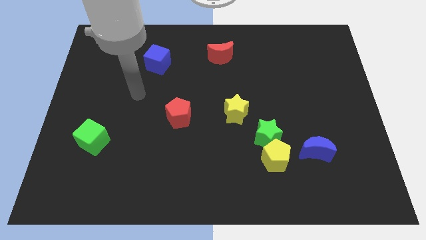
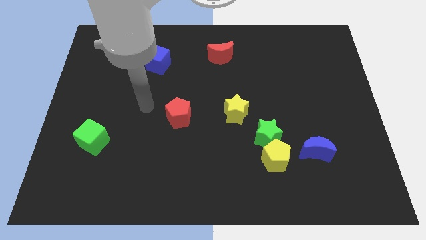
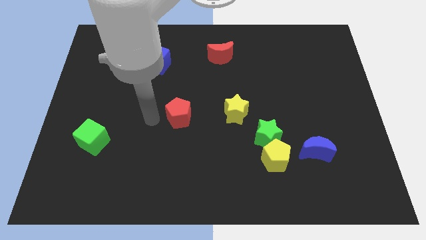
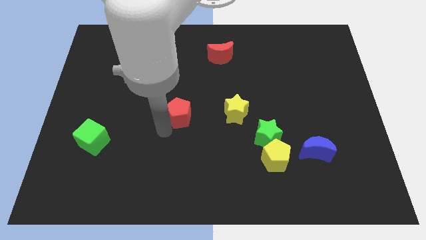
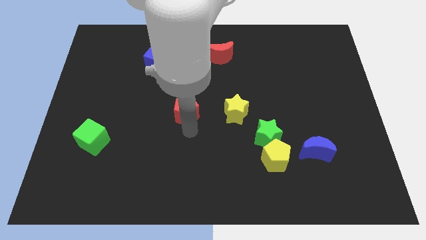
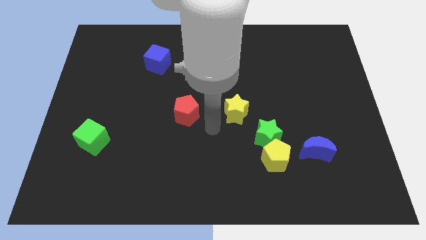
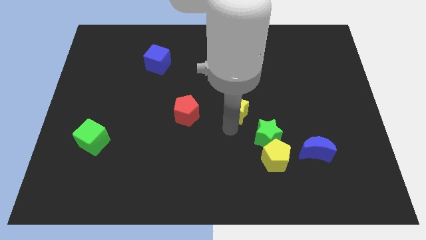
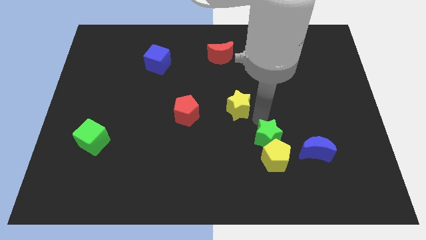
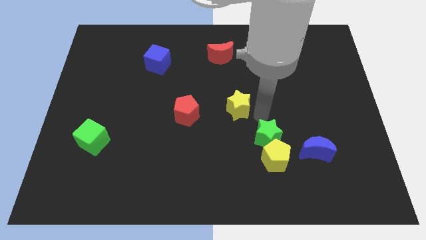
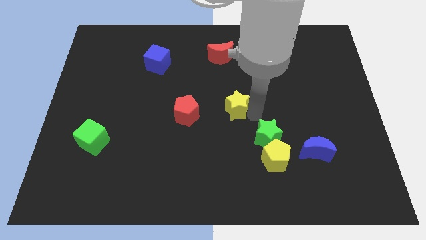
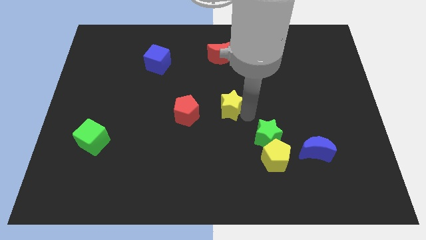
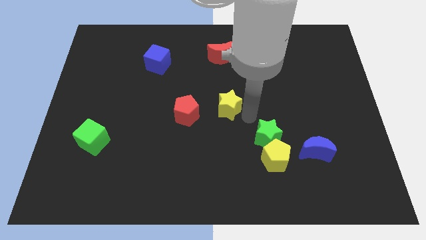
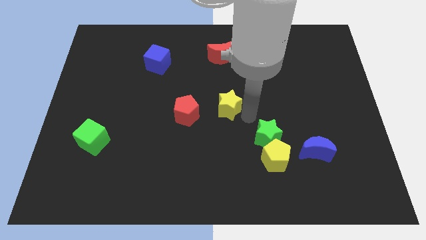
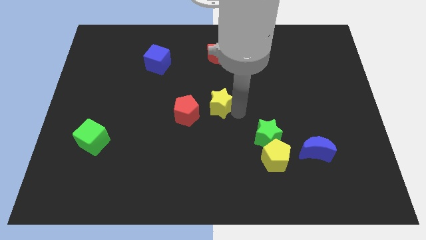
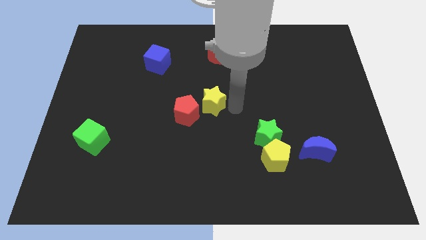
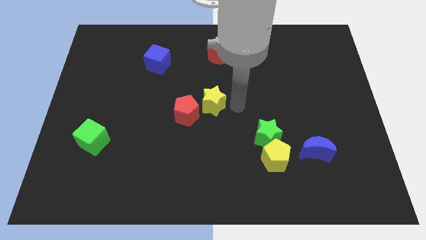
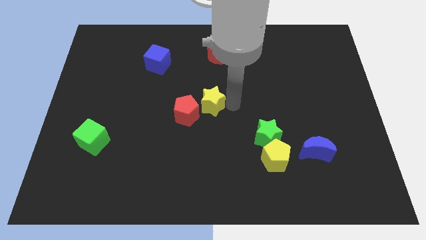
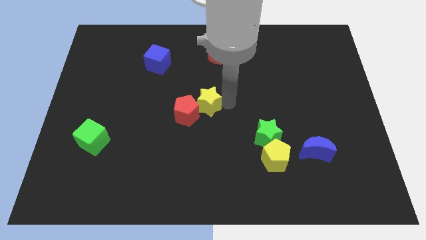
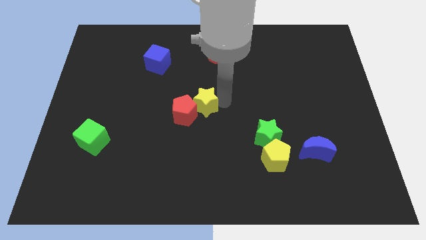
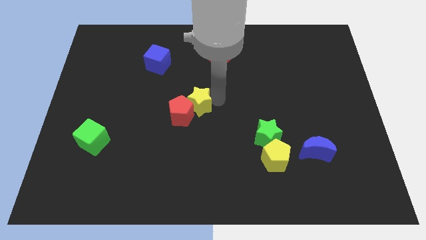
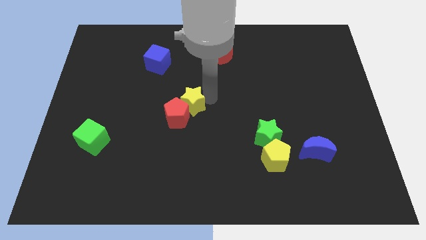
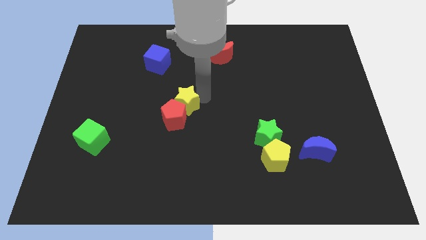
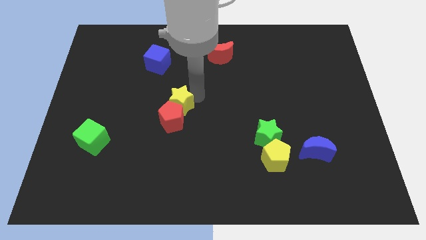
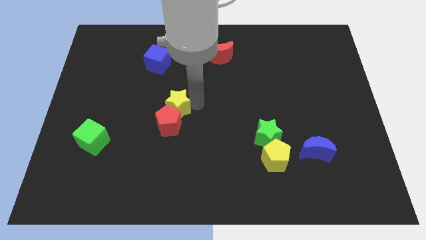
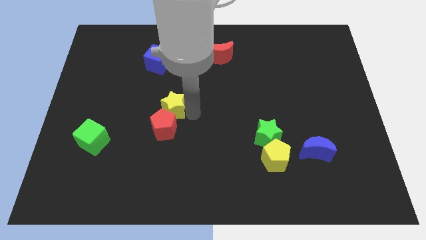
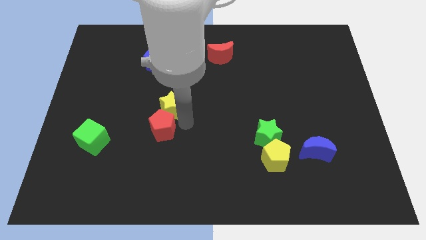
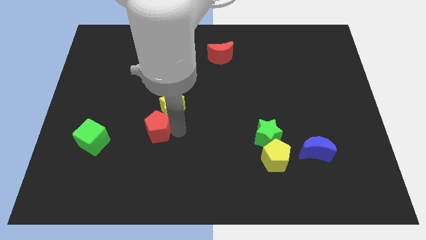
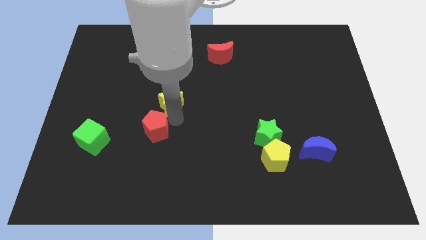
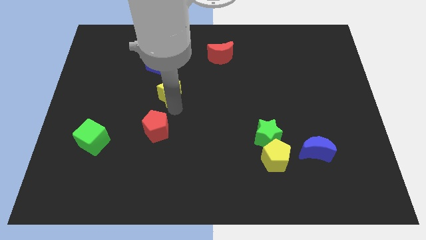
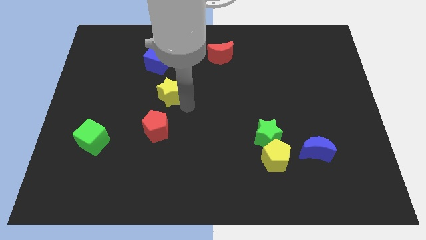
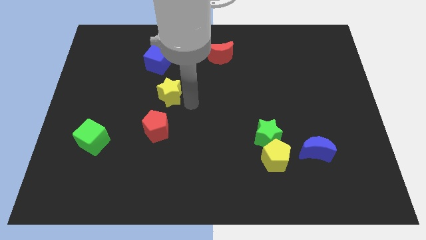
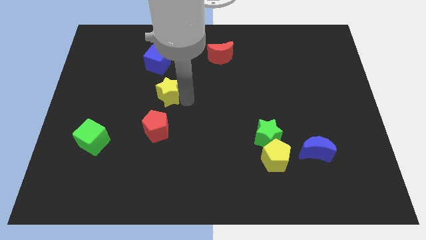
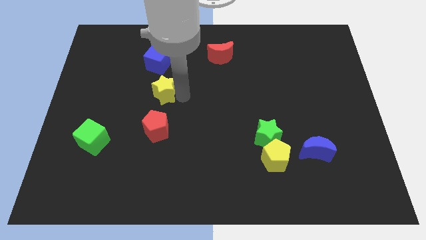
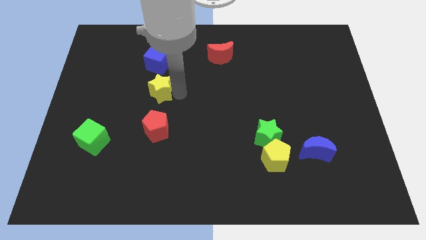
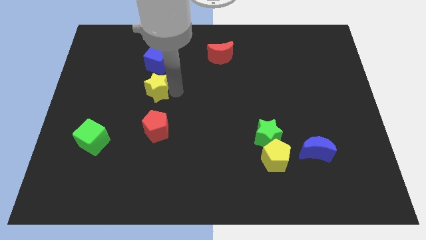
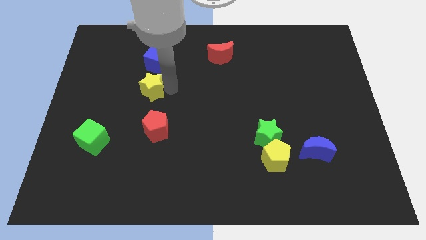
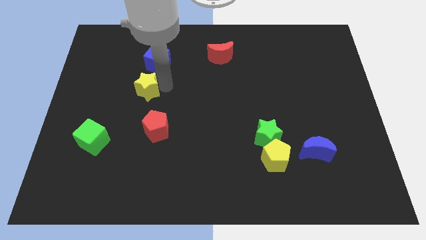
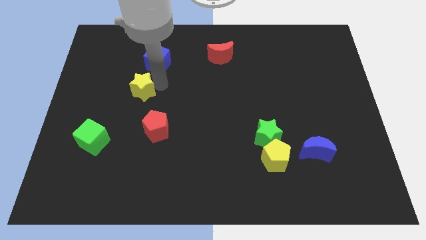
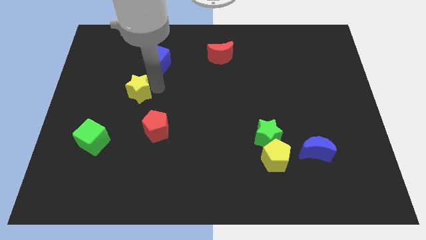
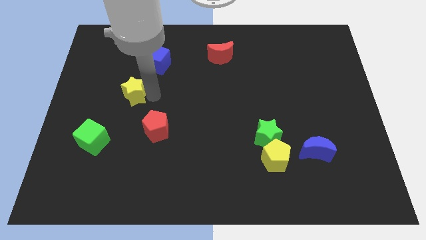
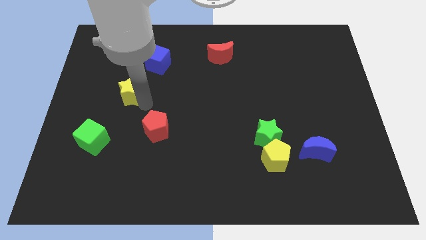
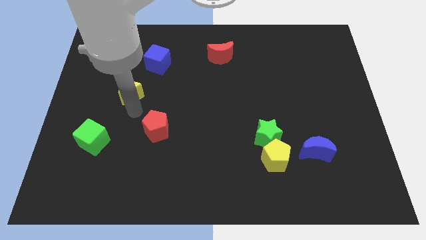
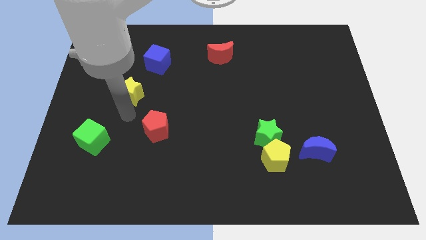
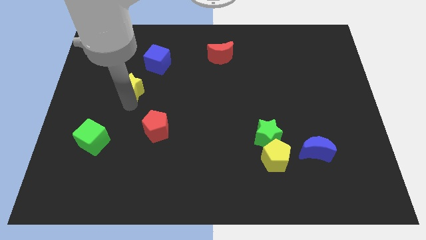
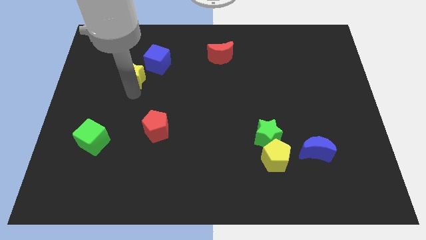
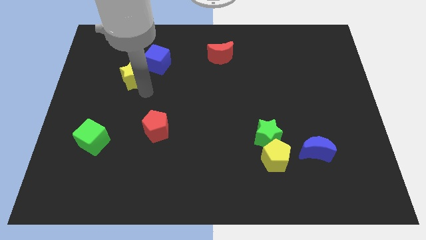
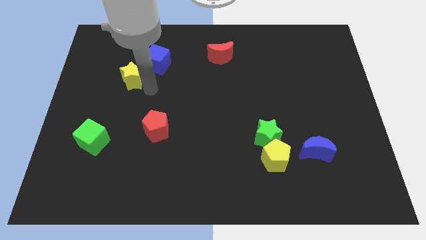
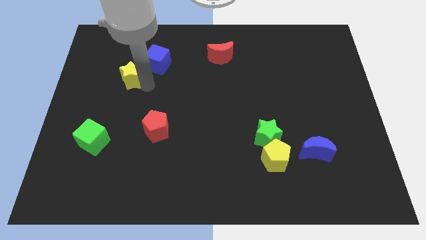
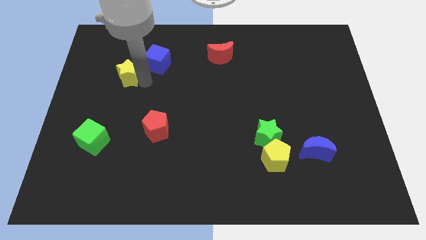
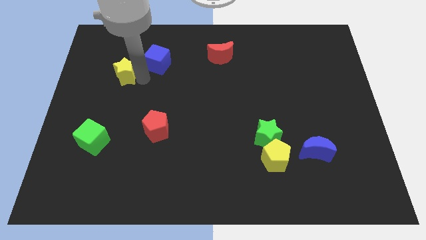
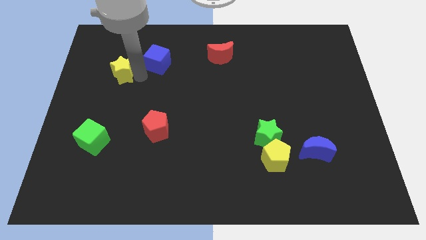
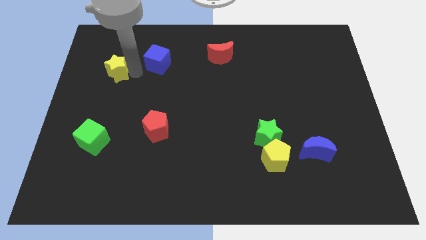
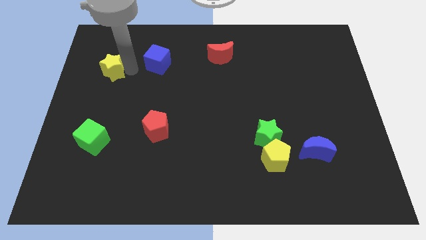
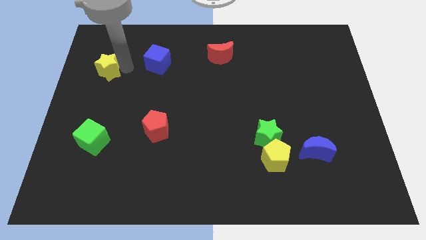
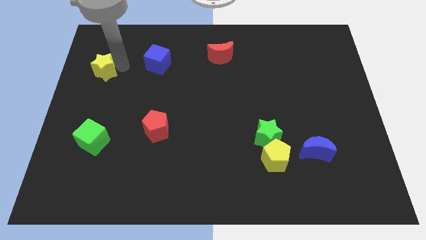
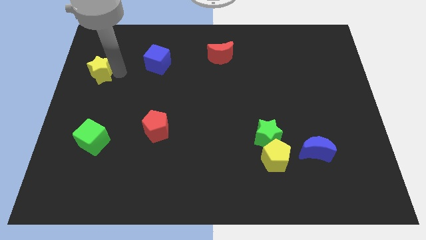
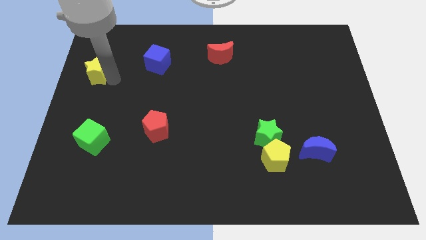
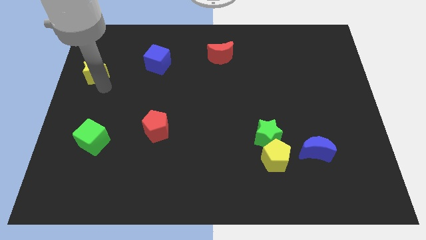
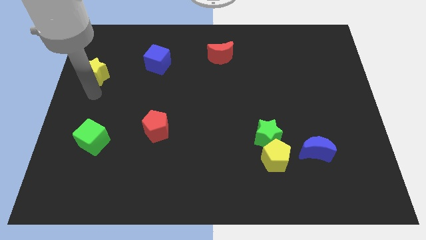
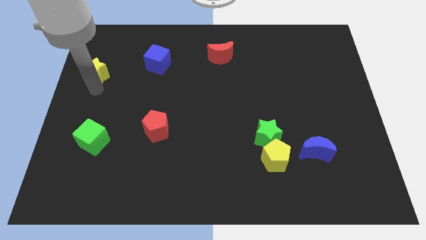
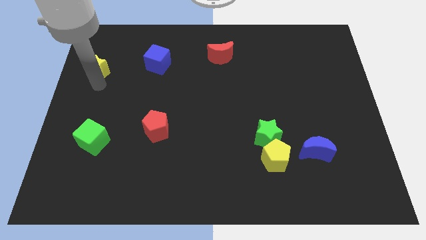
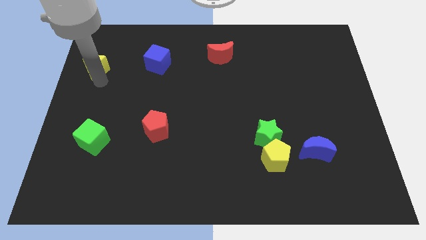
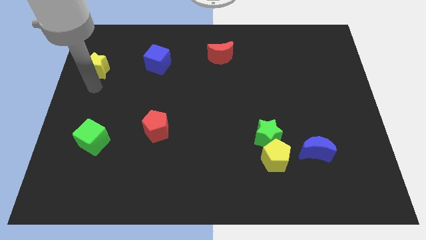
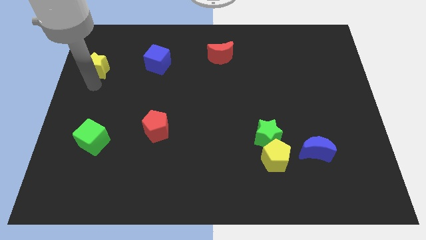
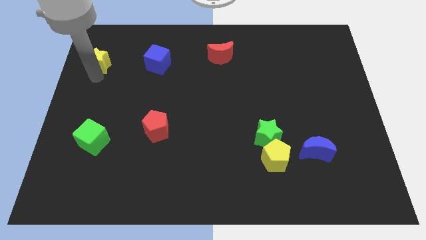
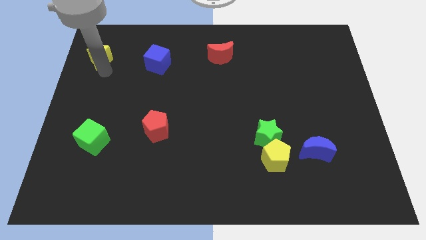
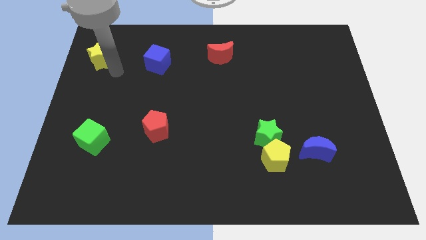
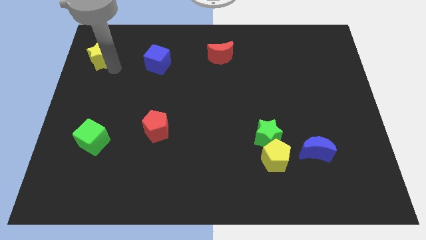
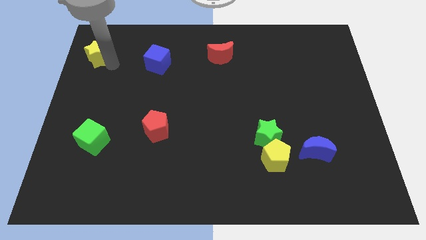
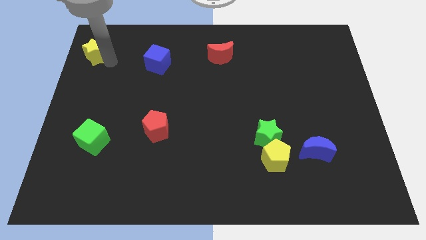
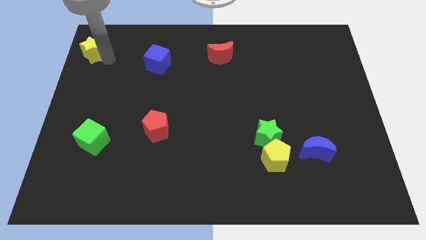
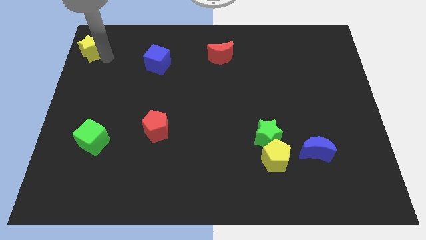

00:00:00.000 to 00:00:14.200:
put the yellow star to the top left corner
